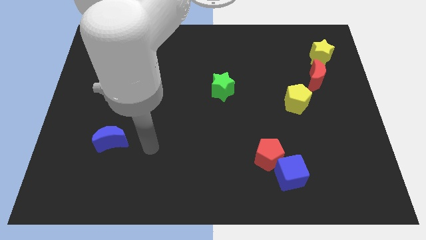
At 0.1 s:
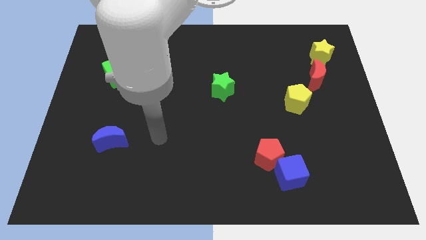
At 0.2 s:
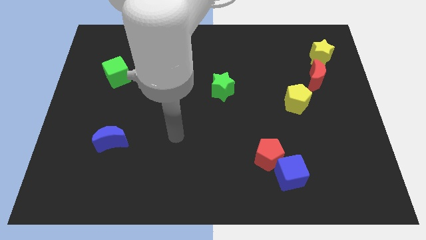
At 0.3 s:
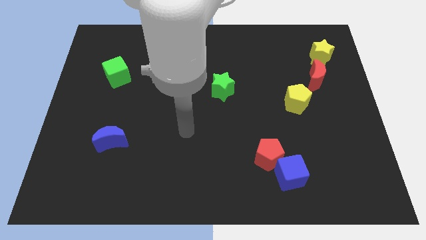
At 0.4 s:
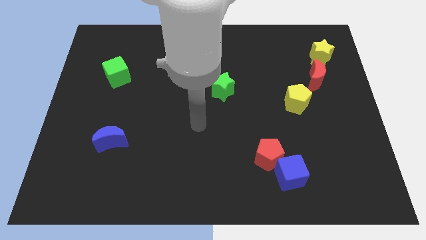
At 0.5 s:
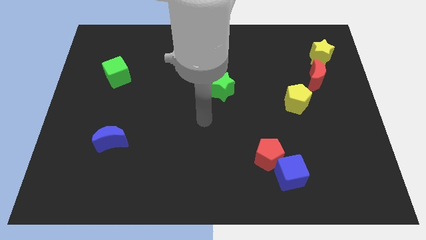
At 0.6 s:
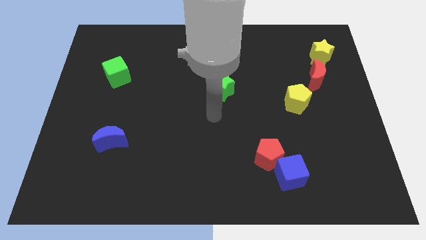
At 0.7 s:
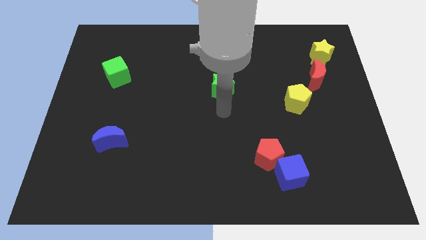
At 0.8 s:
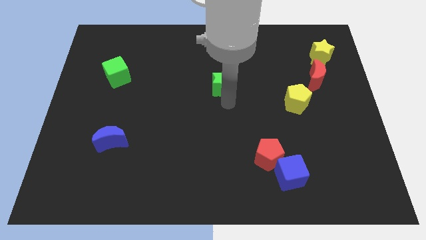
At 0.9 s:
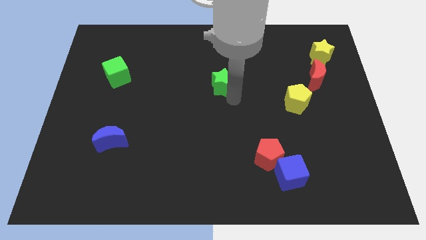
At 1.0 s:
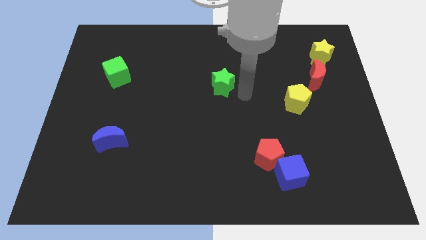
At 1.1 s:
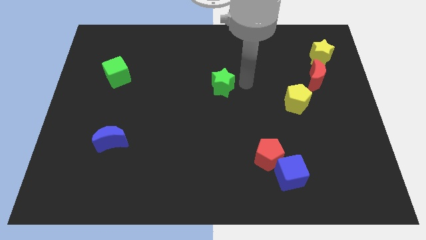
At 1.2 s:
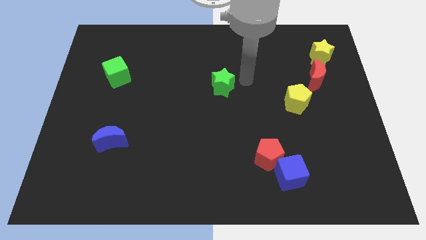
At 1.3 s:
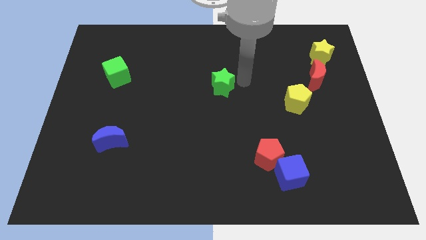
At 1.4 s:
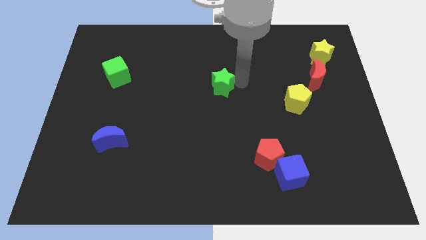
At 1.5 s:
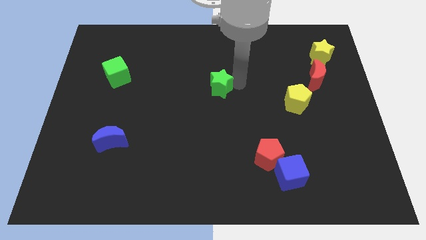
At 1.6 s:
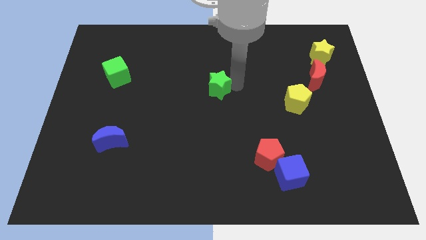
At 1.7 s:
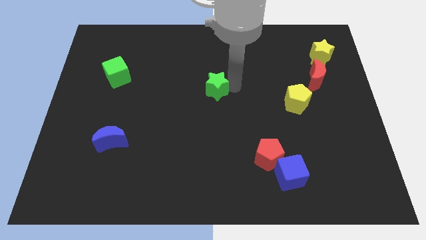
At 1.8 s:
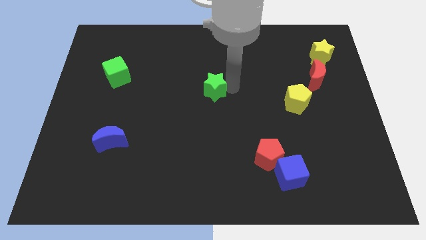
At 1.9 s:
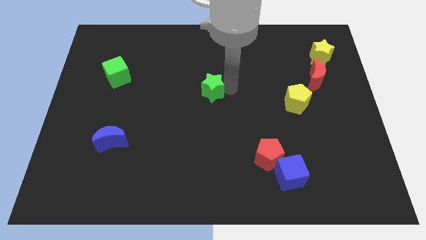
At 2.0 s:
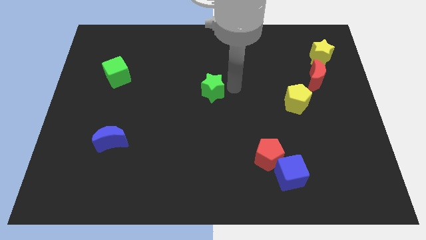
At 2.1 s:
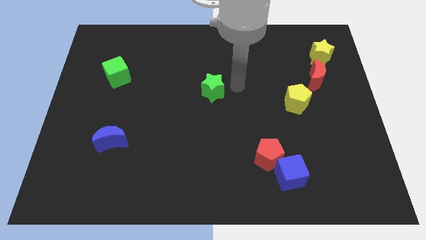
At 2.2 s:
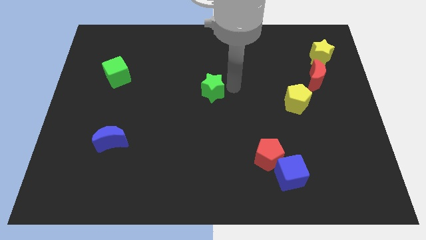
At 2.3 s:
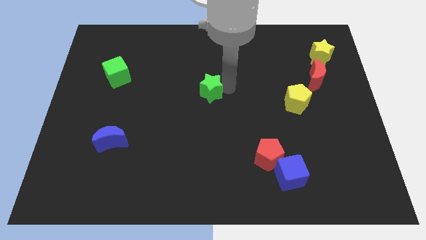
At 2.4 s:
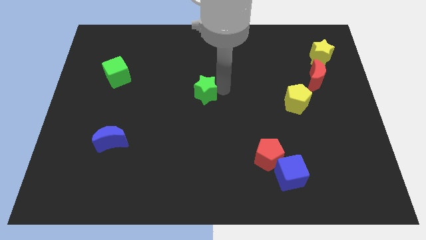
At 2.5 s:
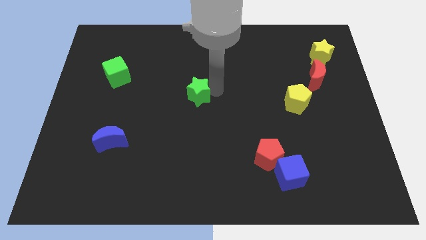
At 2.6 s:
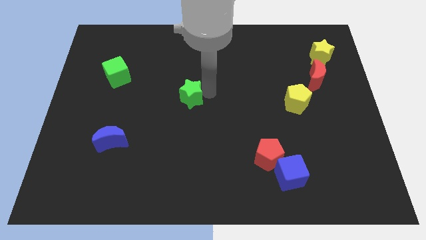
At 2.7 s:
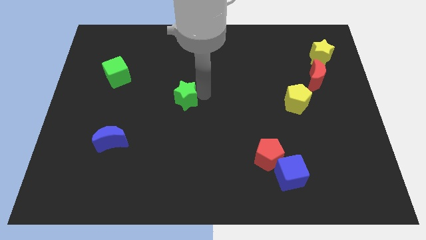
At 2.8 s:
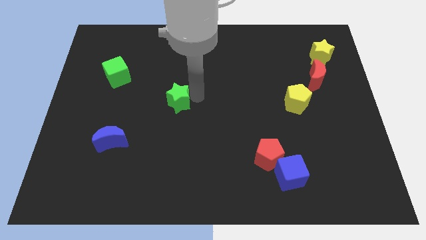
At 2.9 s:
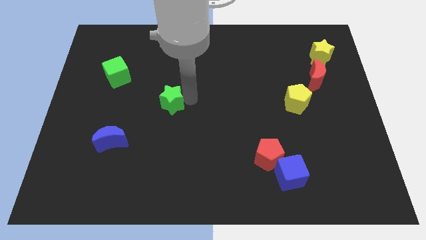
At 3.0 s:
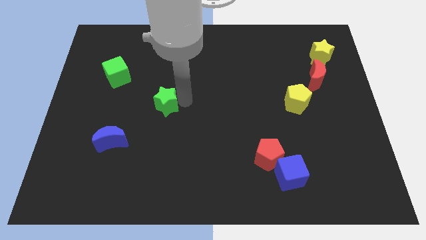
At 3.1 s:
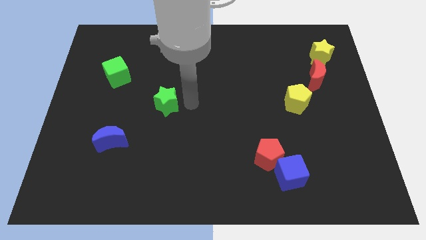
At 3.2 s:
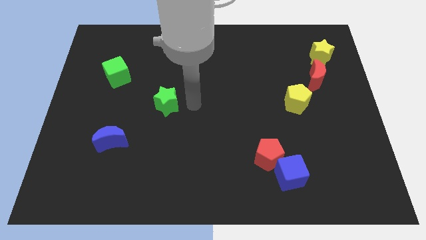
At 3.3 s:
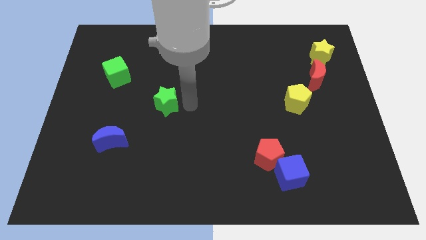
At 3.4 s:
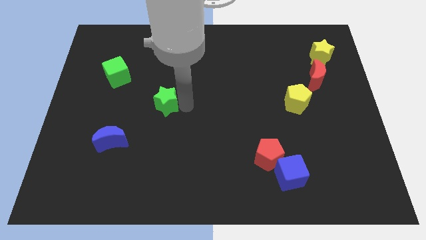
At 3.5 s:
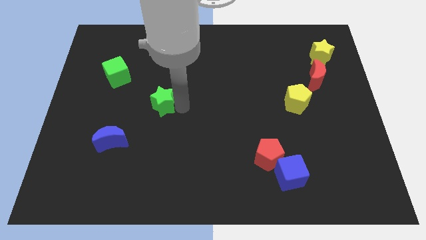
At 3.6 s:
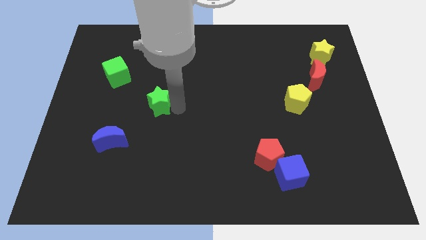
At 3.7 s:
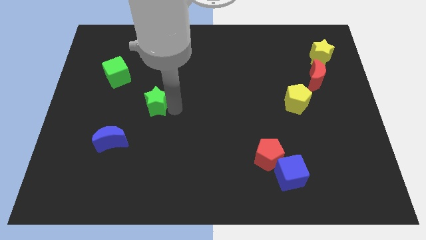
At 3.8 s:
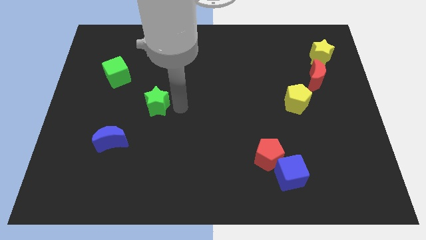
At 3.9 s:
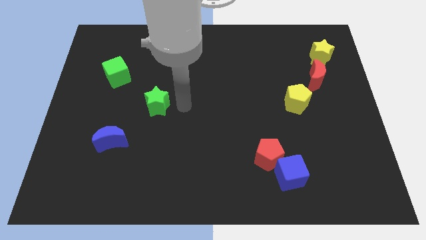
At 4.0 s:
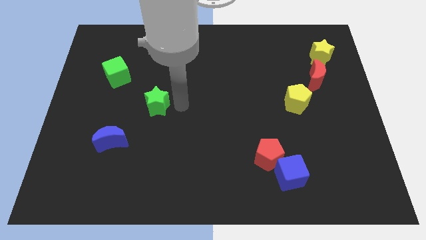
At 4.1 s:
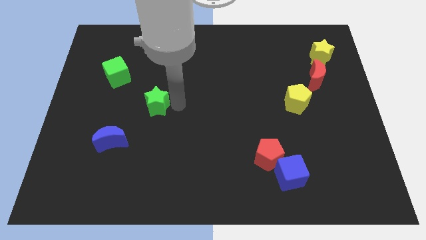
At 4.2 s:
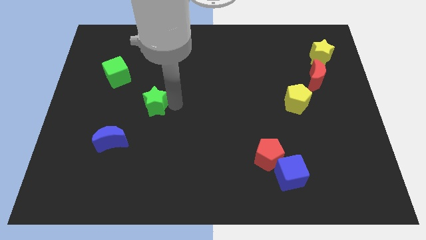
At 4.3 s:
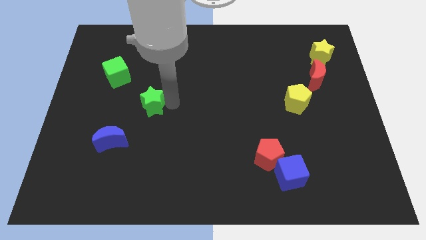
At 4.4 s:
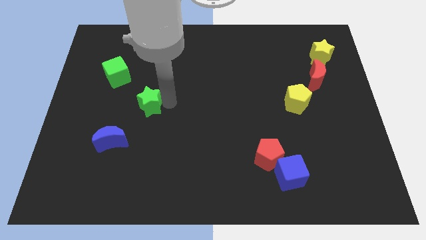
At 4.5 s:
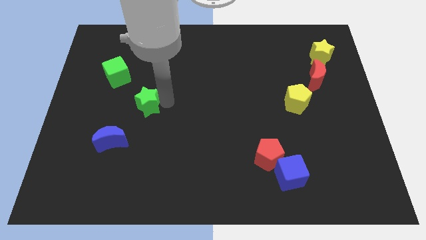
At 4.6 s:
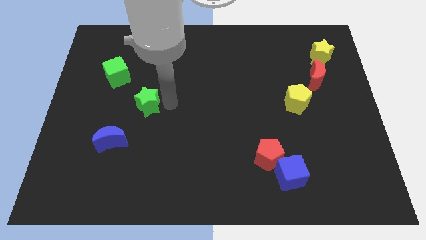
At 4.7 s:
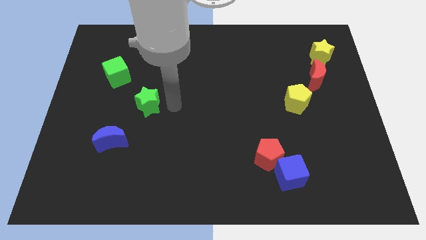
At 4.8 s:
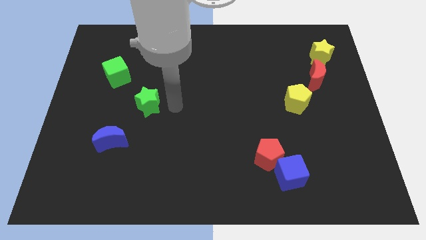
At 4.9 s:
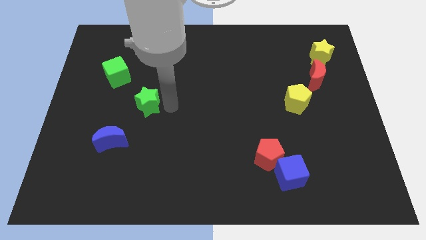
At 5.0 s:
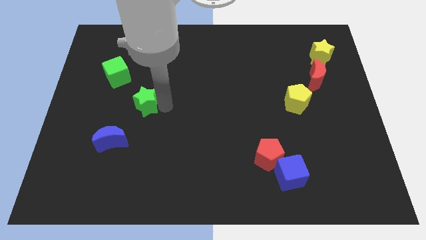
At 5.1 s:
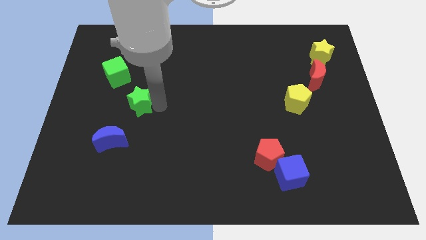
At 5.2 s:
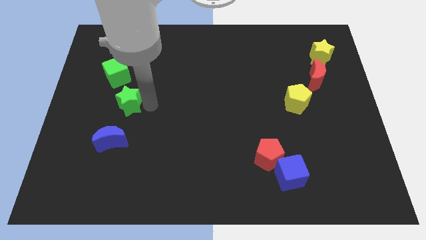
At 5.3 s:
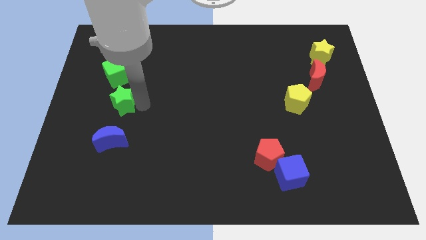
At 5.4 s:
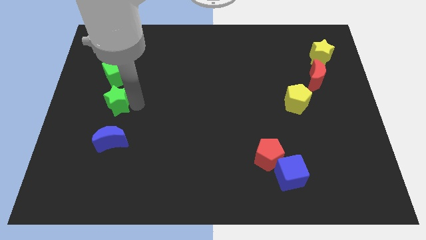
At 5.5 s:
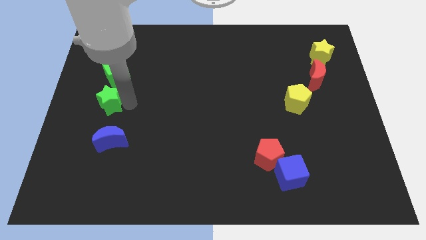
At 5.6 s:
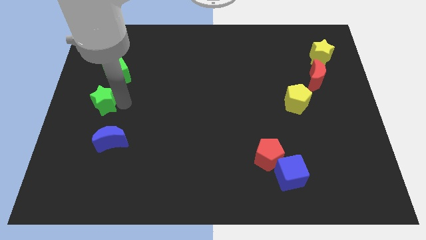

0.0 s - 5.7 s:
slide the green star to the center left
